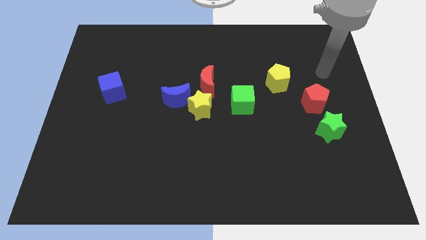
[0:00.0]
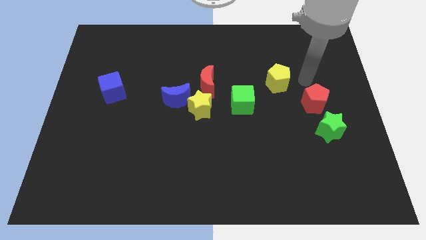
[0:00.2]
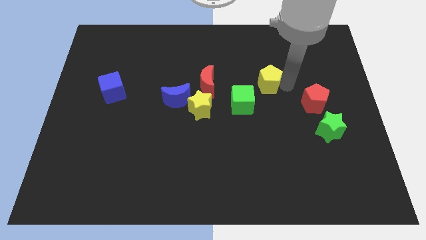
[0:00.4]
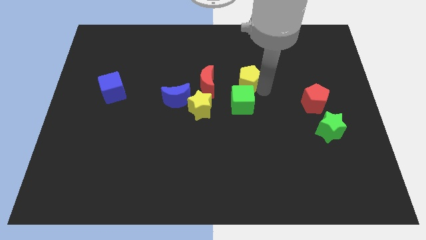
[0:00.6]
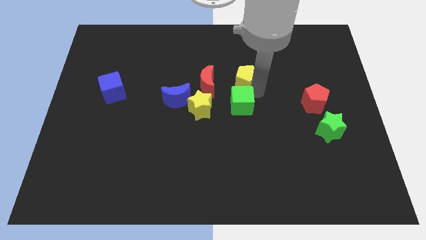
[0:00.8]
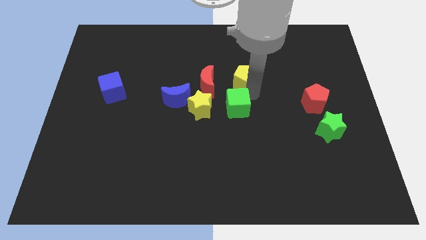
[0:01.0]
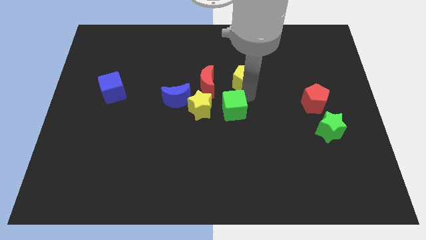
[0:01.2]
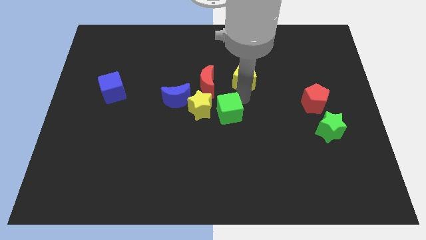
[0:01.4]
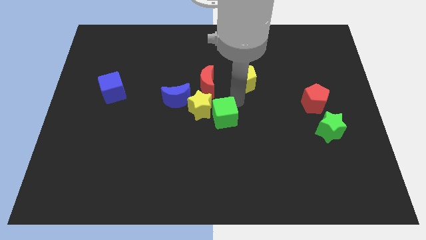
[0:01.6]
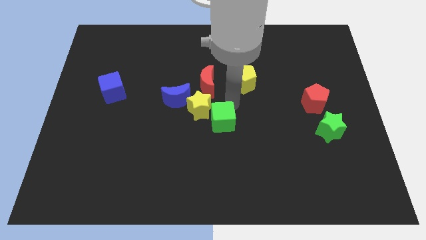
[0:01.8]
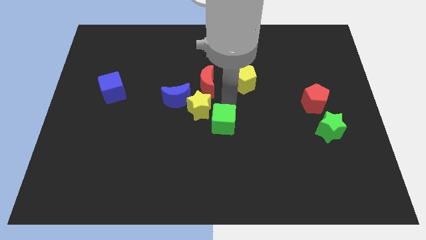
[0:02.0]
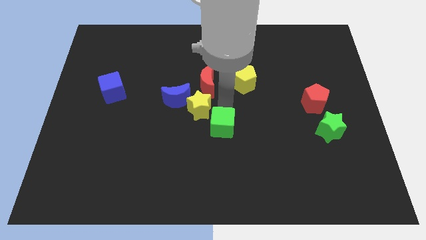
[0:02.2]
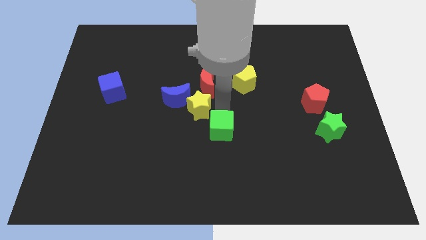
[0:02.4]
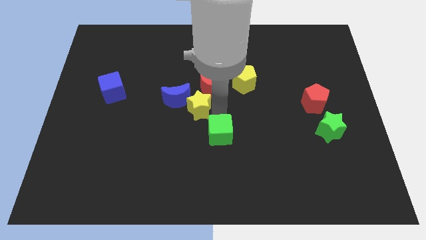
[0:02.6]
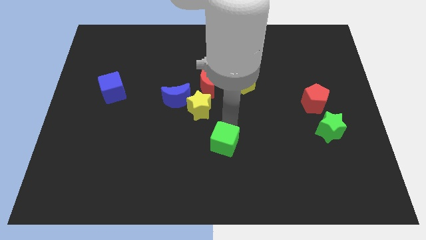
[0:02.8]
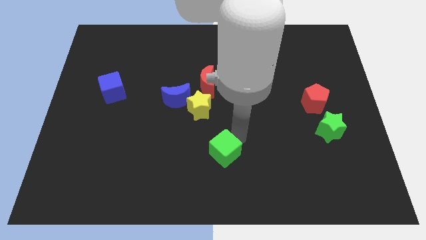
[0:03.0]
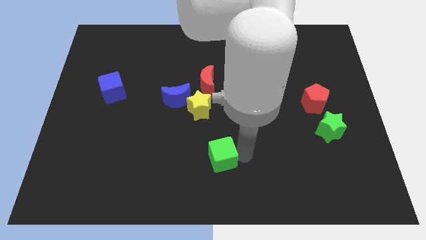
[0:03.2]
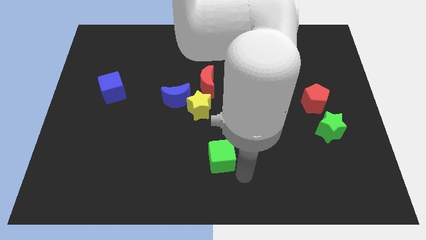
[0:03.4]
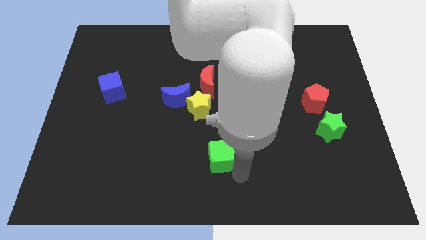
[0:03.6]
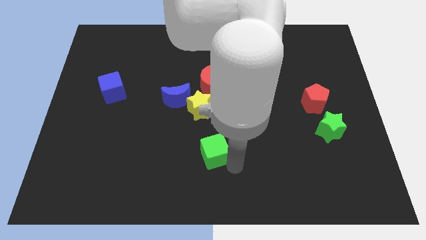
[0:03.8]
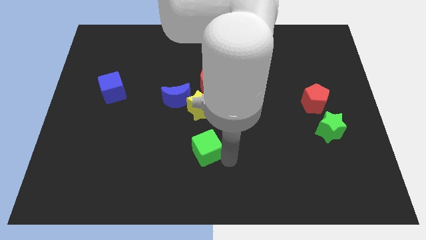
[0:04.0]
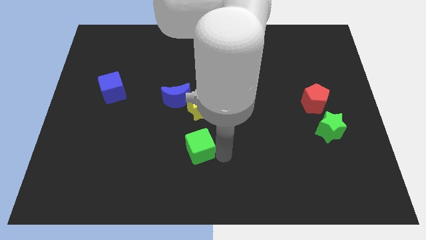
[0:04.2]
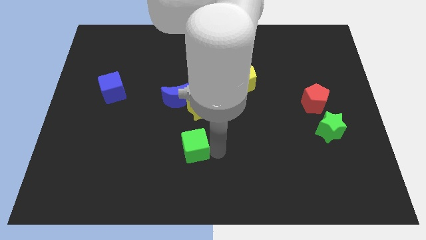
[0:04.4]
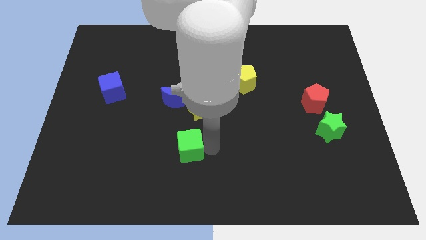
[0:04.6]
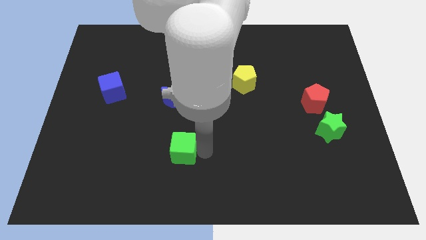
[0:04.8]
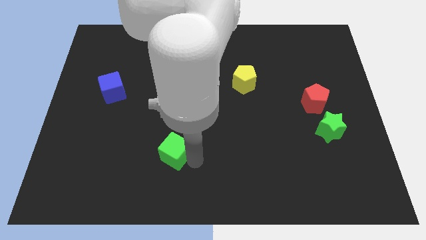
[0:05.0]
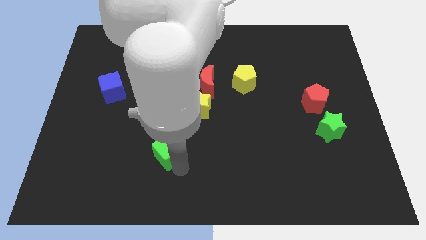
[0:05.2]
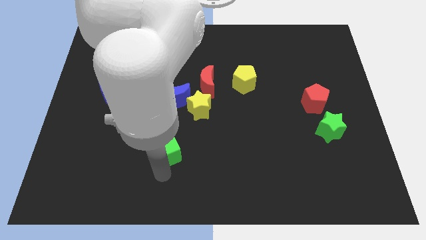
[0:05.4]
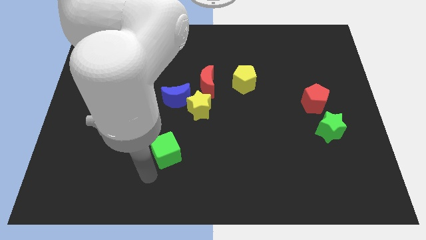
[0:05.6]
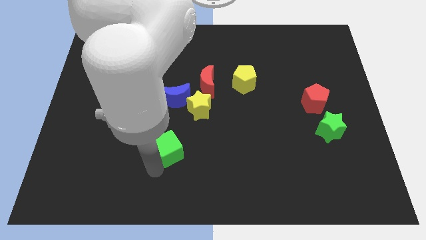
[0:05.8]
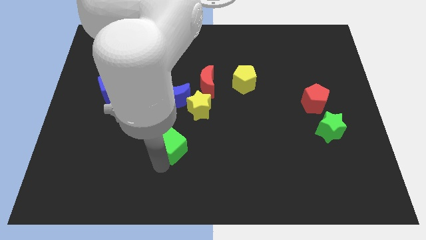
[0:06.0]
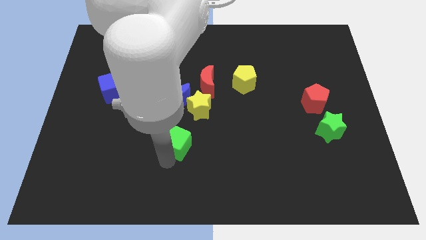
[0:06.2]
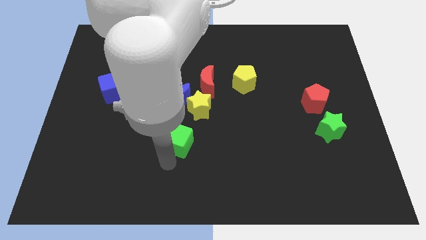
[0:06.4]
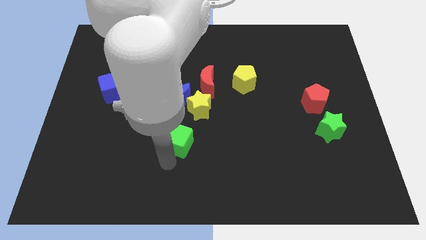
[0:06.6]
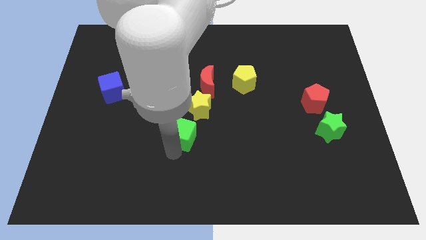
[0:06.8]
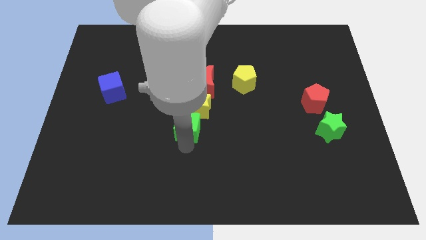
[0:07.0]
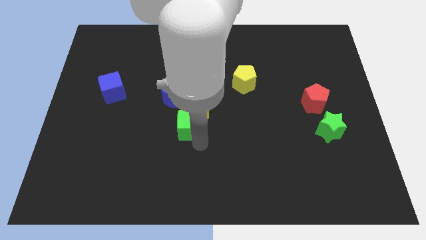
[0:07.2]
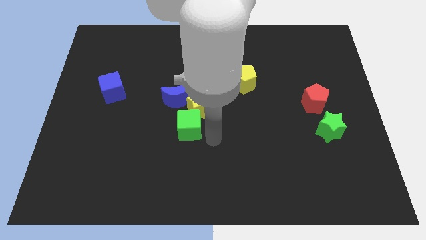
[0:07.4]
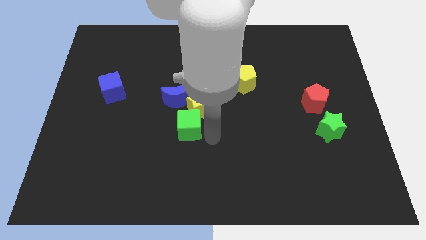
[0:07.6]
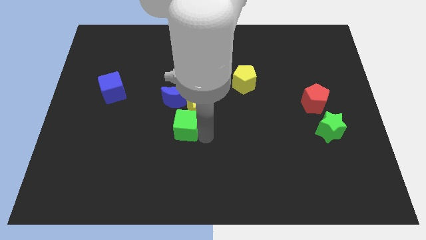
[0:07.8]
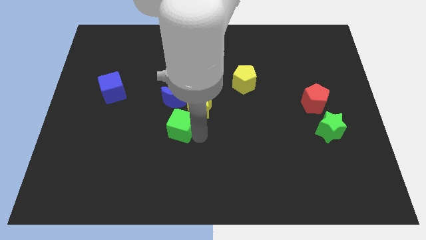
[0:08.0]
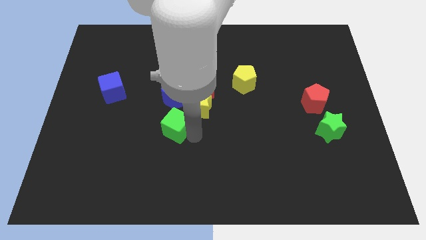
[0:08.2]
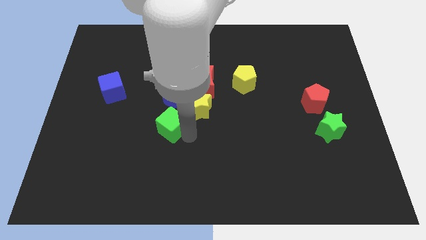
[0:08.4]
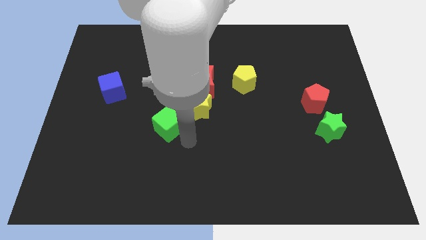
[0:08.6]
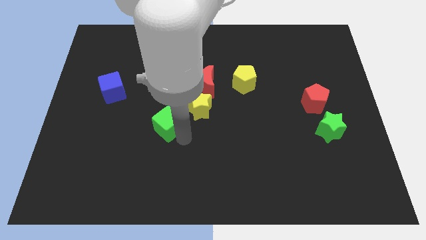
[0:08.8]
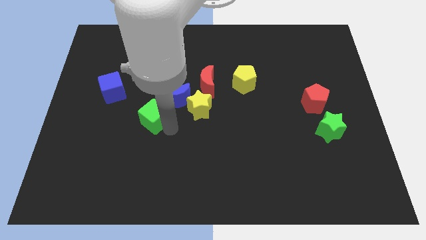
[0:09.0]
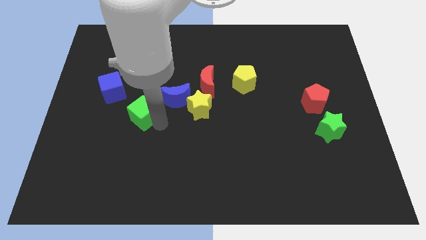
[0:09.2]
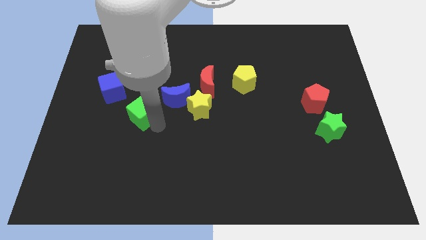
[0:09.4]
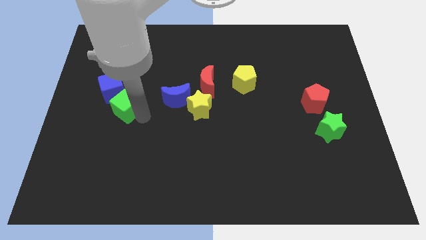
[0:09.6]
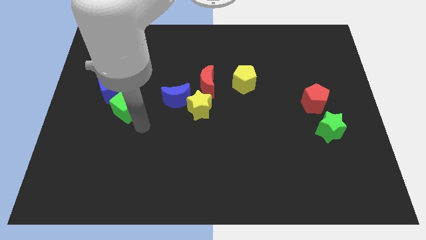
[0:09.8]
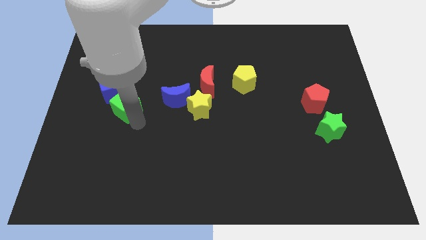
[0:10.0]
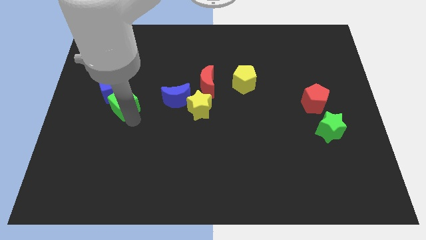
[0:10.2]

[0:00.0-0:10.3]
push the green cube close to the blue cube

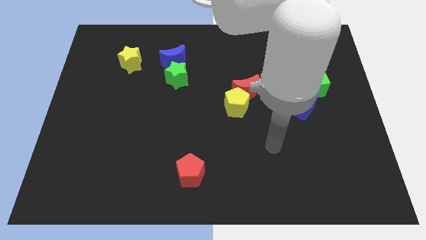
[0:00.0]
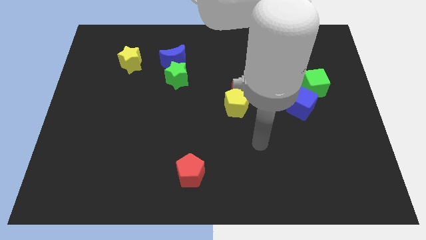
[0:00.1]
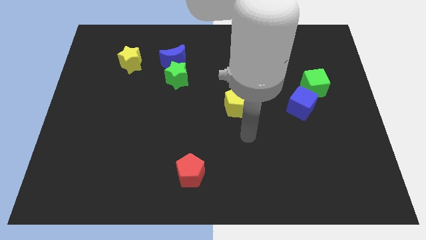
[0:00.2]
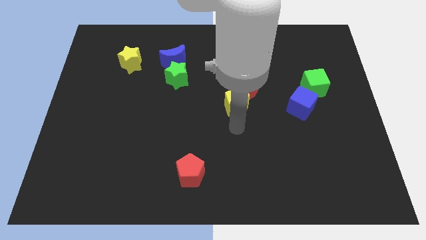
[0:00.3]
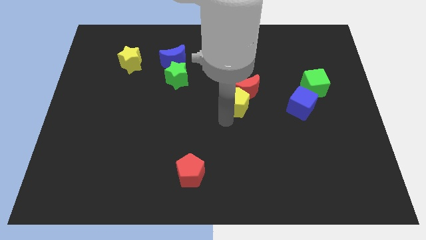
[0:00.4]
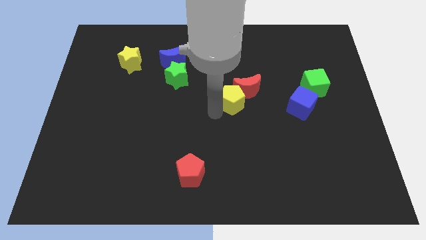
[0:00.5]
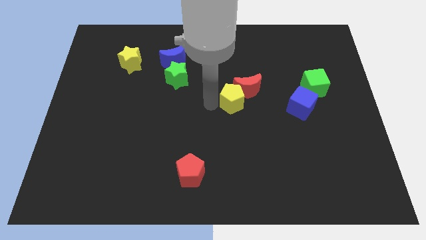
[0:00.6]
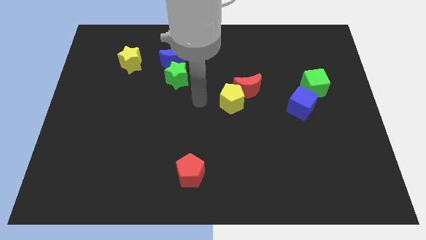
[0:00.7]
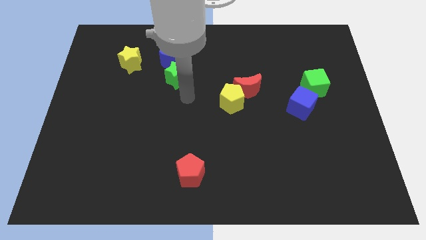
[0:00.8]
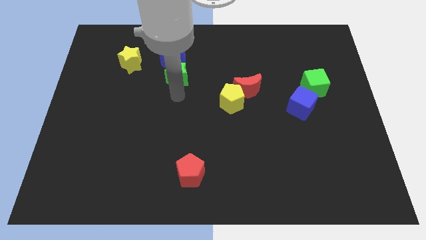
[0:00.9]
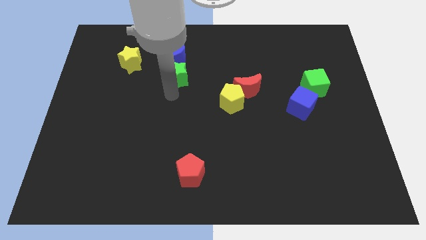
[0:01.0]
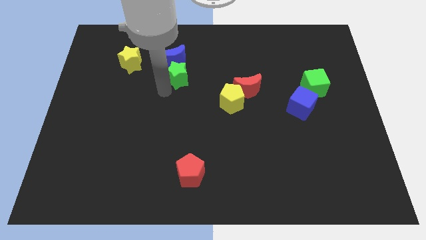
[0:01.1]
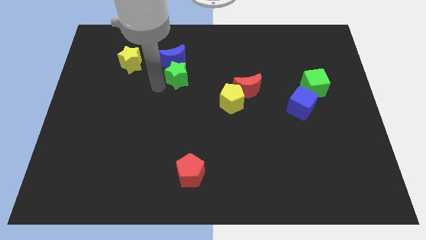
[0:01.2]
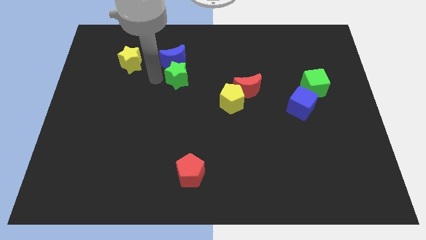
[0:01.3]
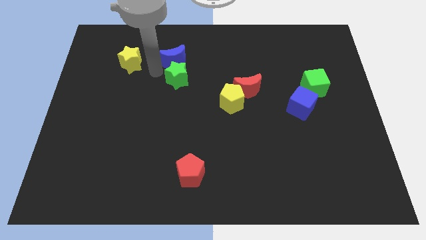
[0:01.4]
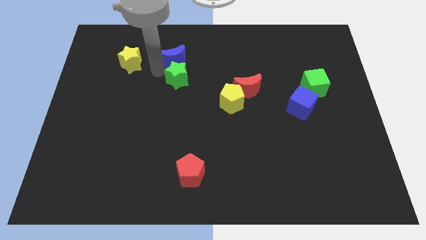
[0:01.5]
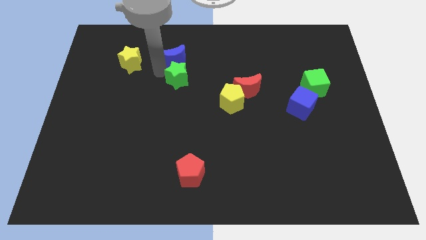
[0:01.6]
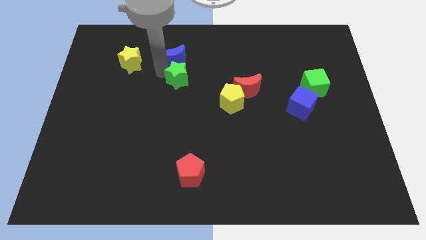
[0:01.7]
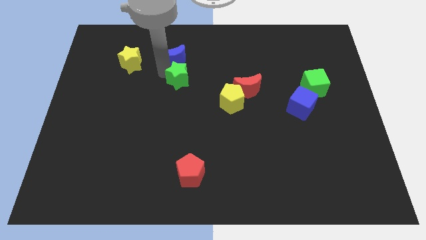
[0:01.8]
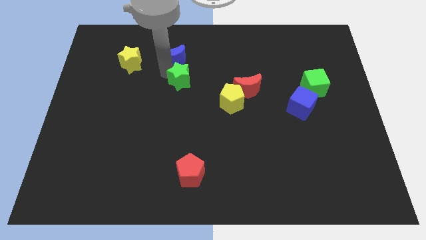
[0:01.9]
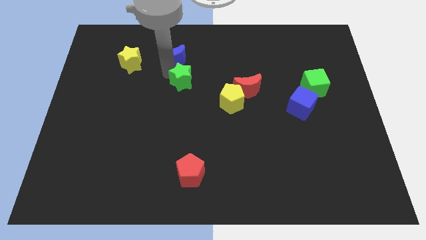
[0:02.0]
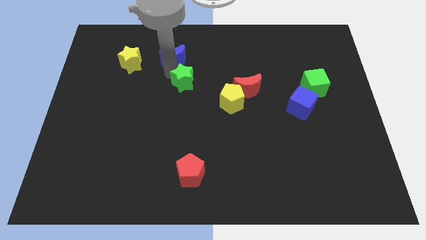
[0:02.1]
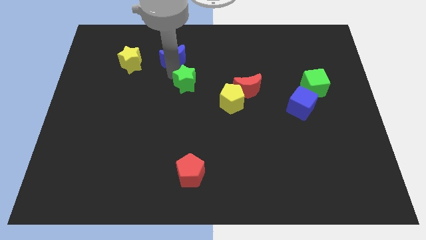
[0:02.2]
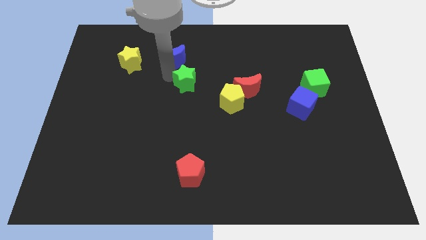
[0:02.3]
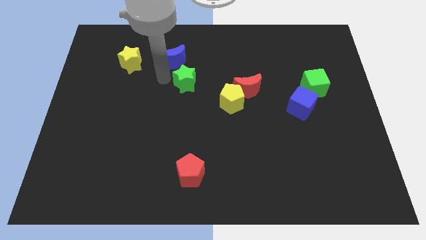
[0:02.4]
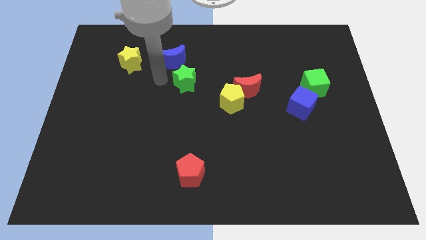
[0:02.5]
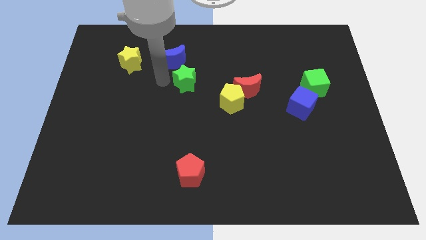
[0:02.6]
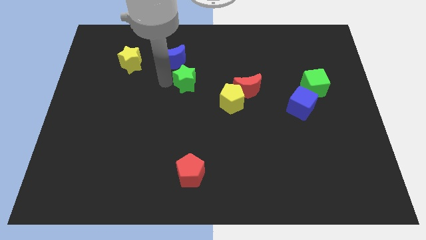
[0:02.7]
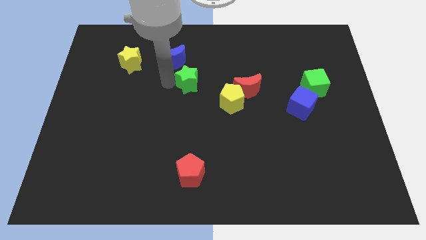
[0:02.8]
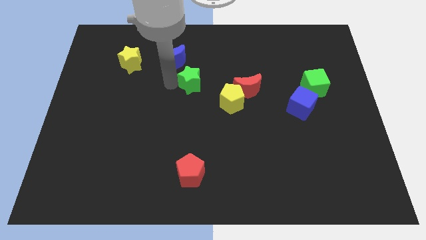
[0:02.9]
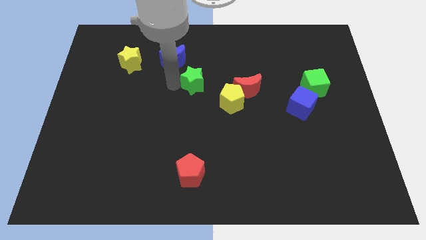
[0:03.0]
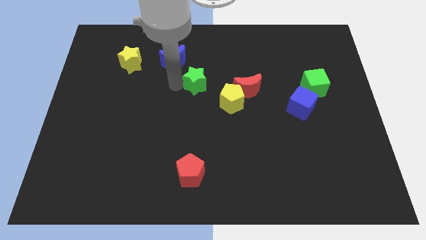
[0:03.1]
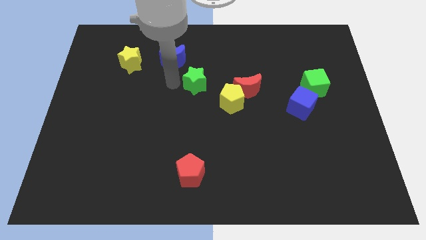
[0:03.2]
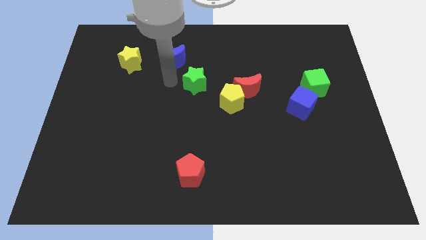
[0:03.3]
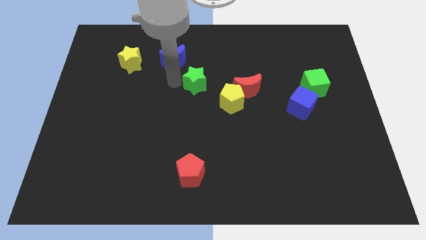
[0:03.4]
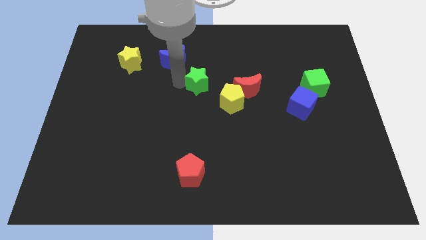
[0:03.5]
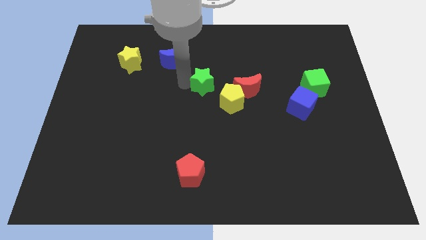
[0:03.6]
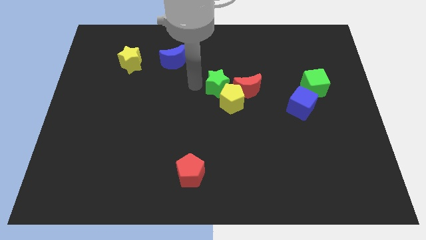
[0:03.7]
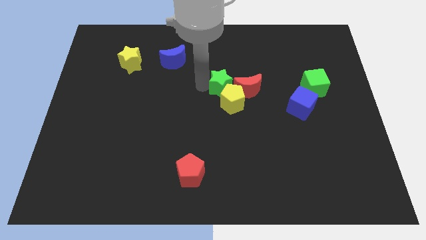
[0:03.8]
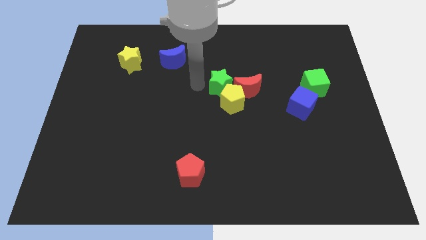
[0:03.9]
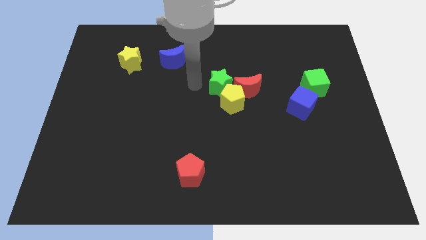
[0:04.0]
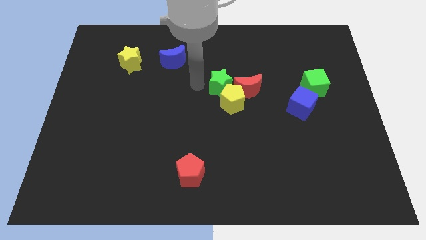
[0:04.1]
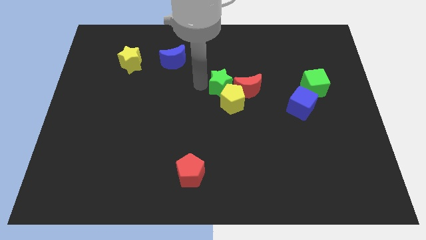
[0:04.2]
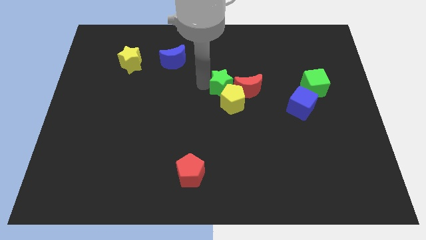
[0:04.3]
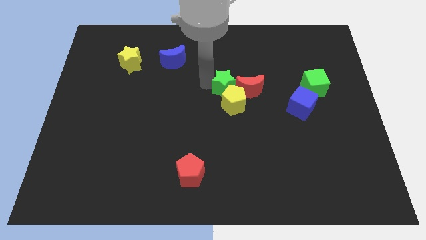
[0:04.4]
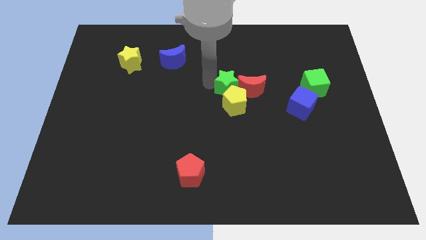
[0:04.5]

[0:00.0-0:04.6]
put the green star next to the red moon
